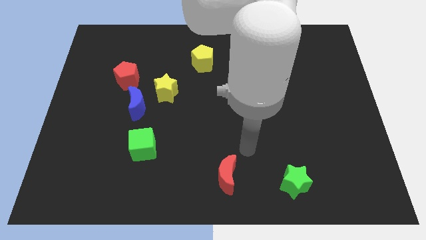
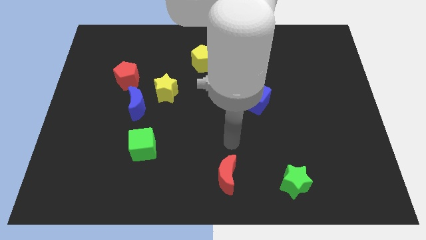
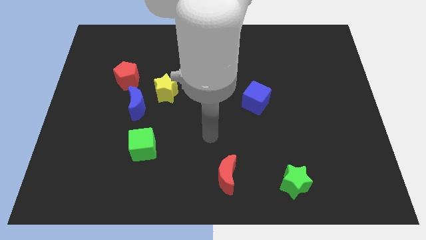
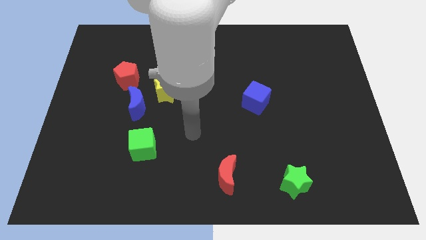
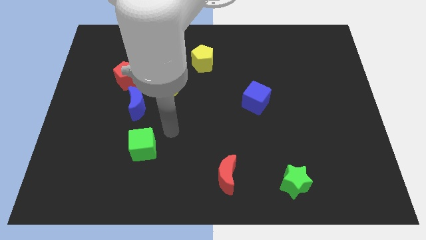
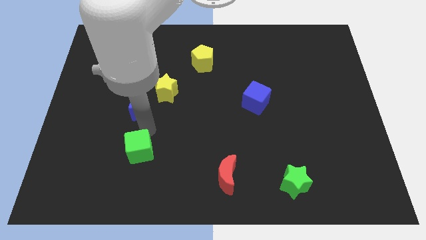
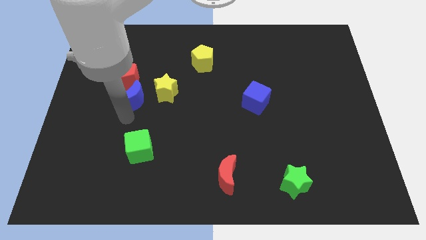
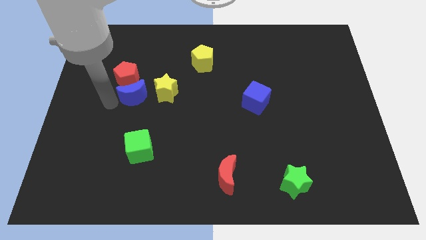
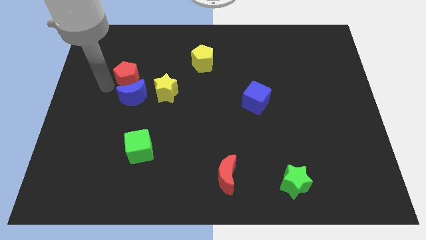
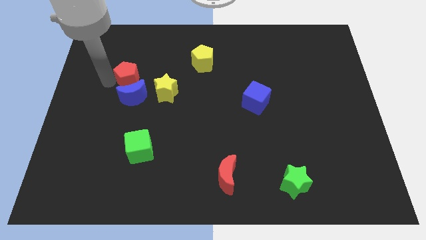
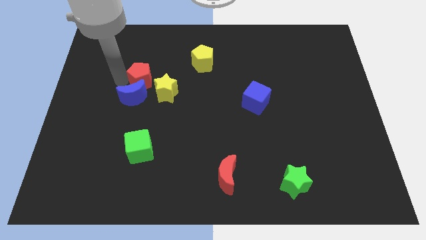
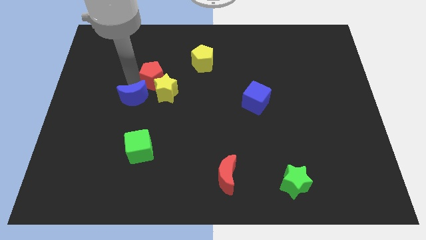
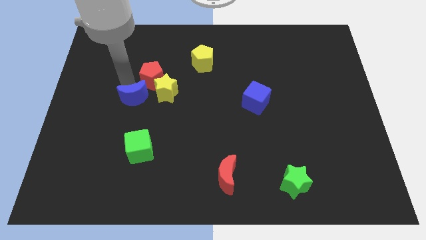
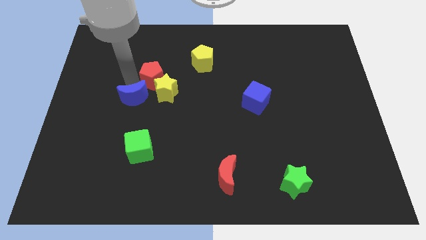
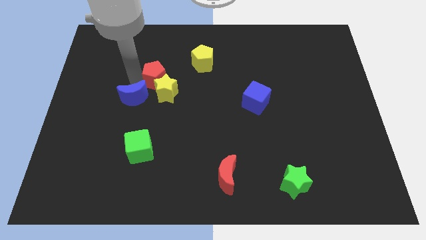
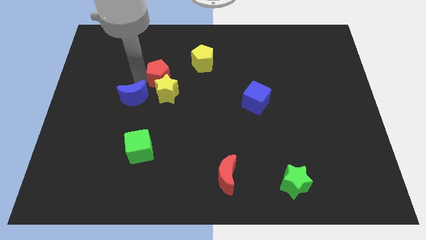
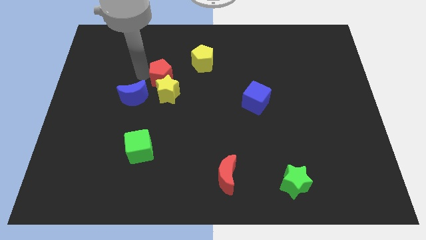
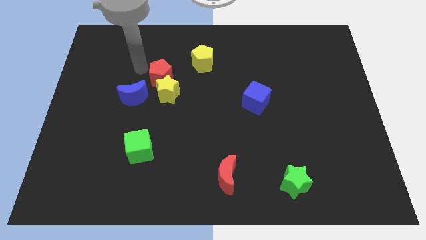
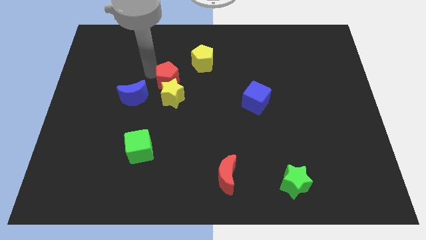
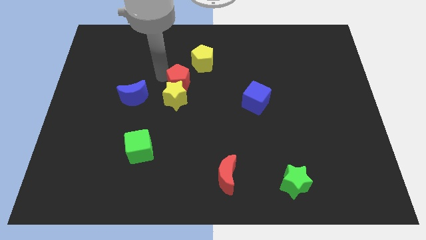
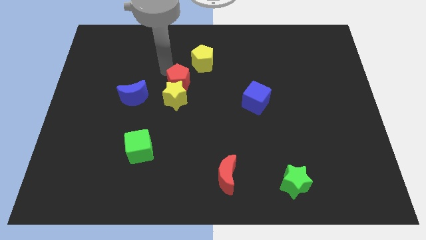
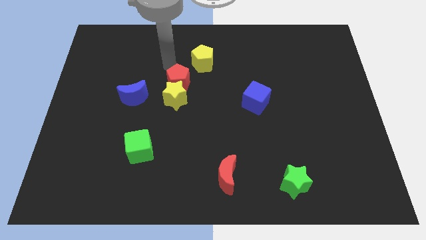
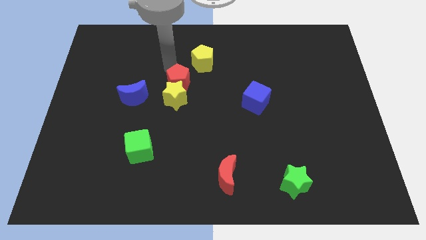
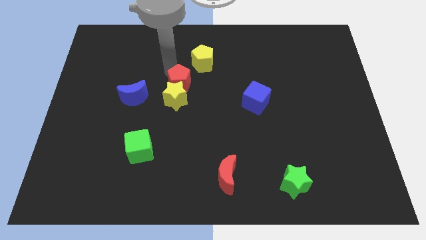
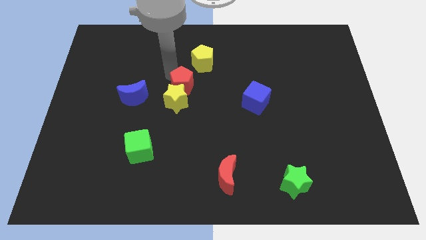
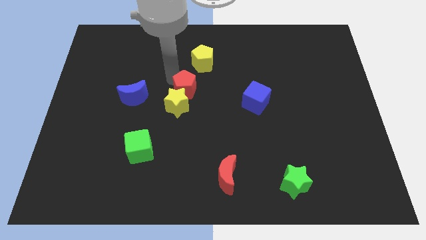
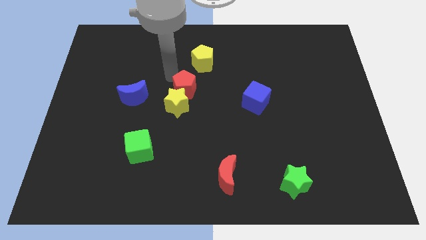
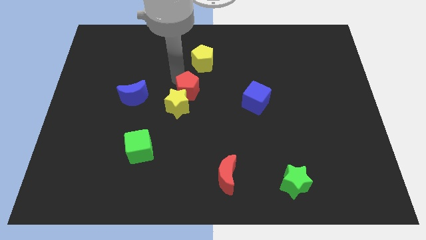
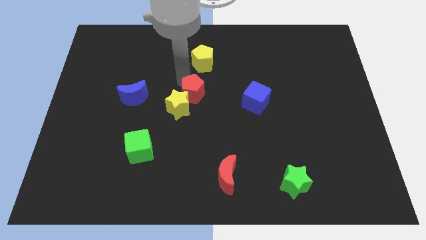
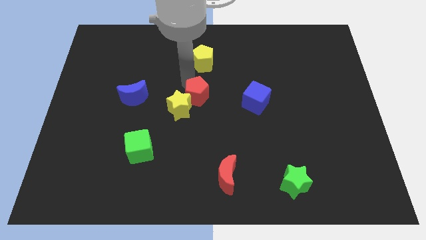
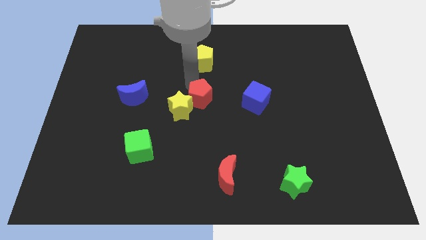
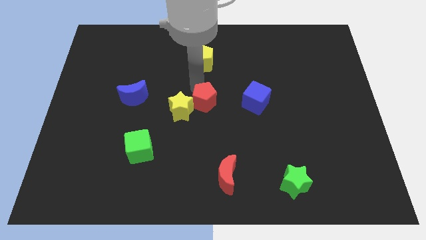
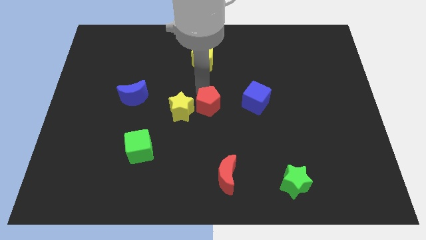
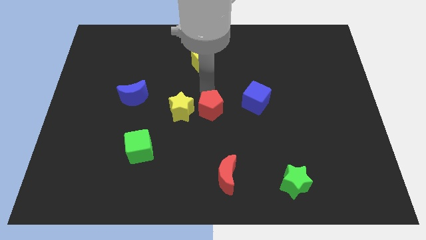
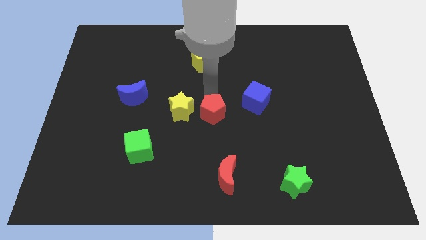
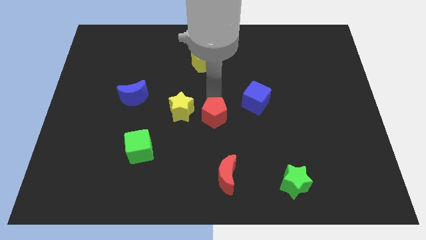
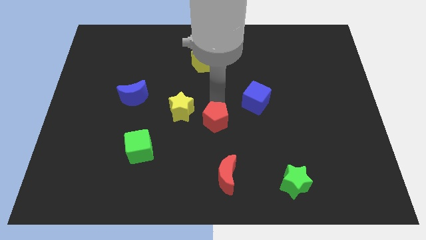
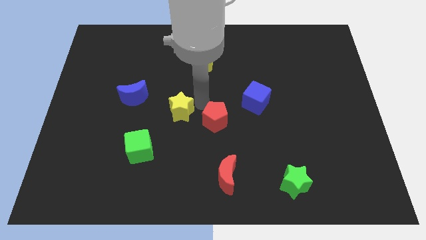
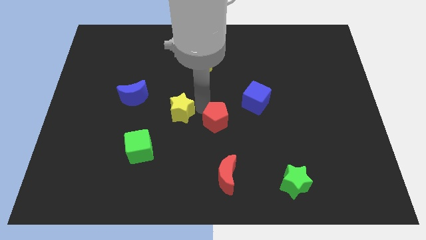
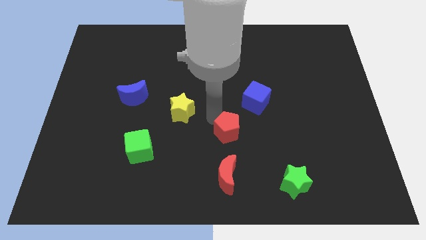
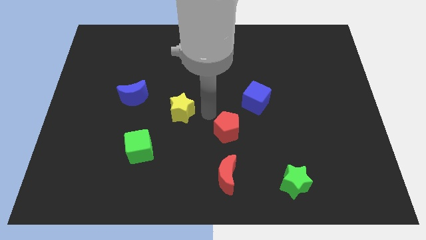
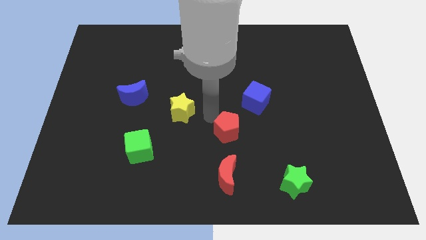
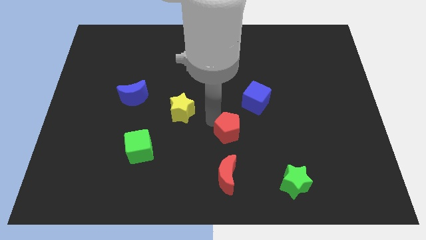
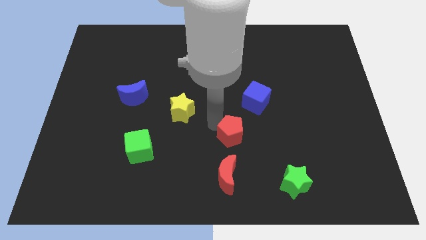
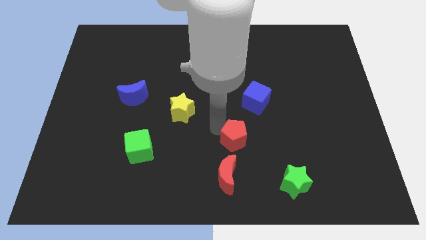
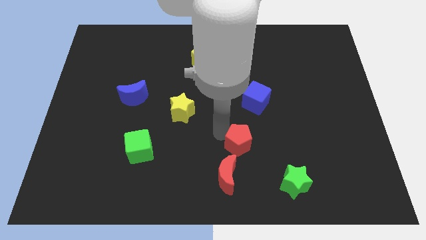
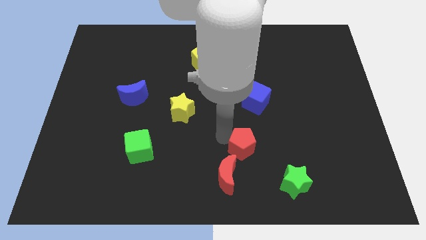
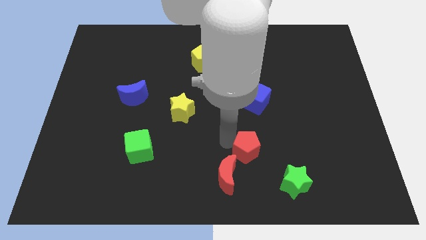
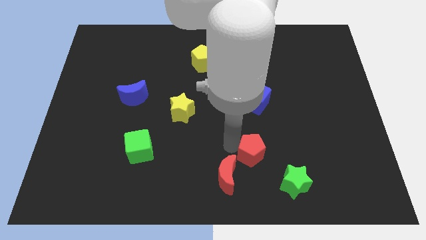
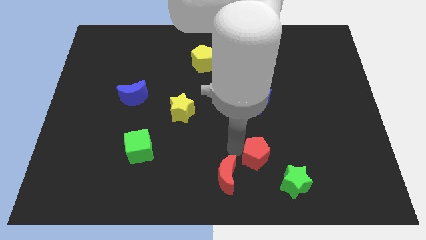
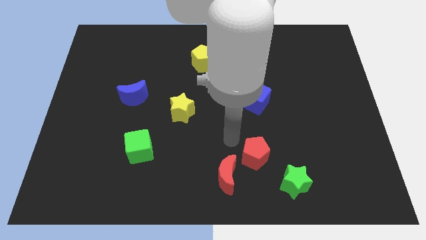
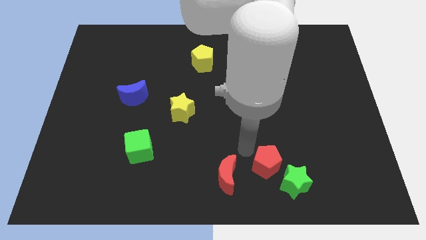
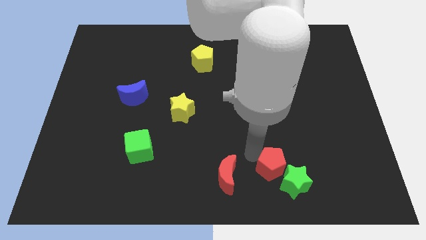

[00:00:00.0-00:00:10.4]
move the red pentagon close to the green star

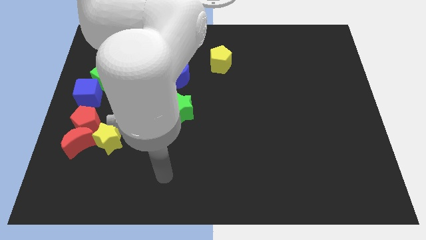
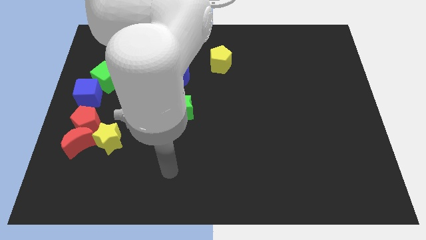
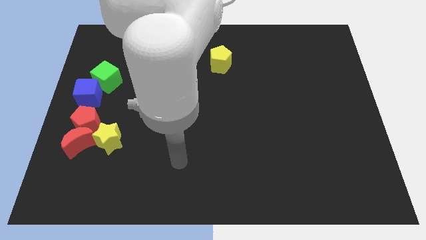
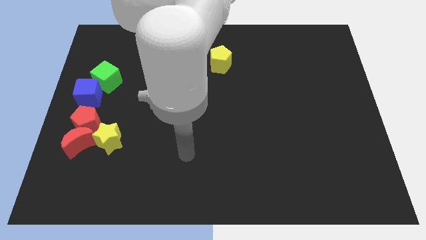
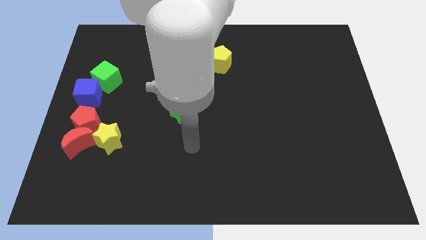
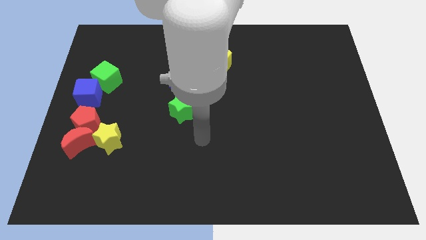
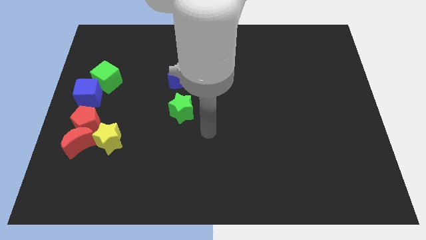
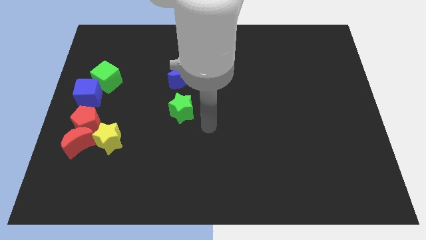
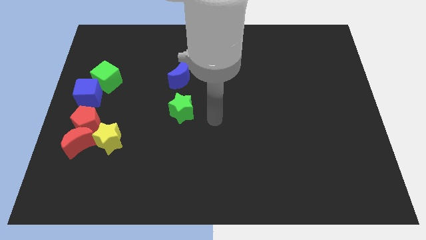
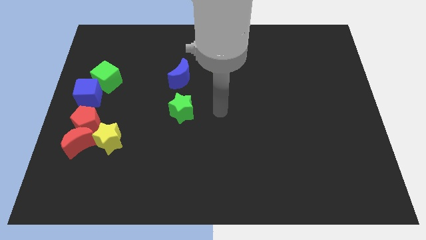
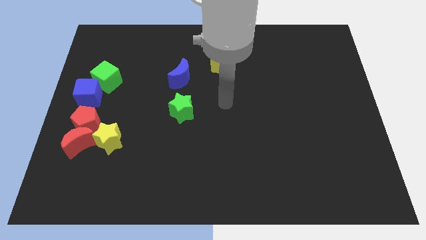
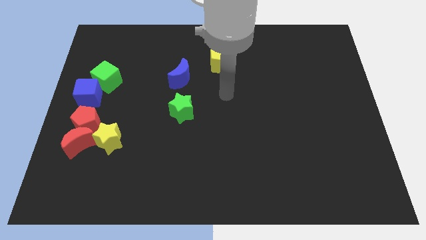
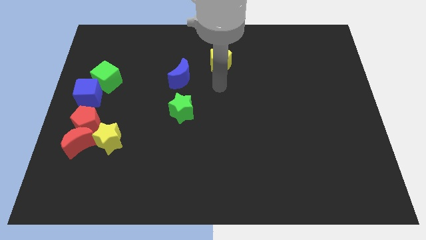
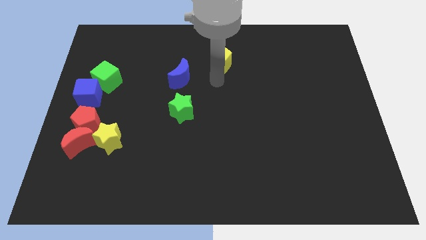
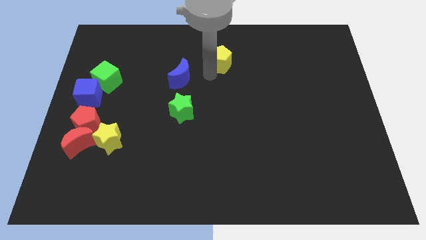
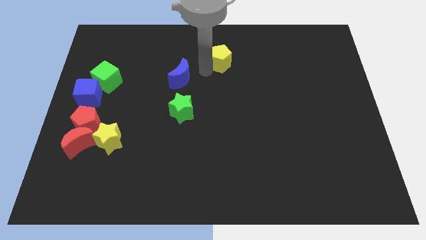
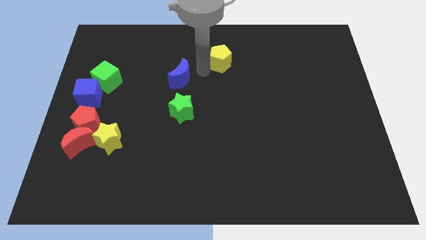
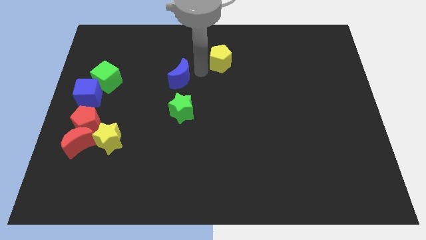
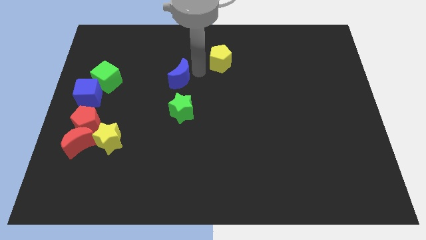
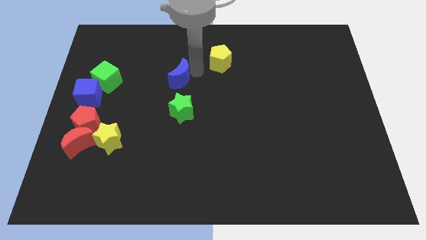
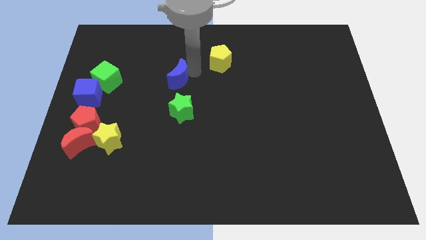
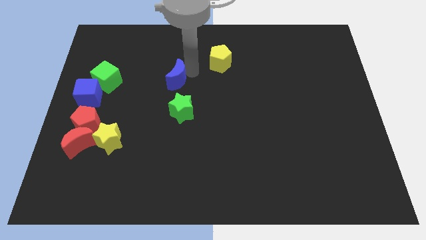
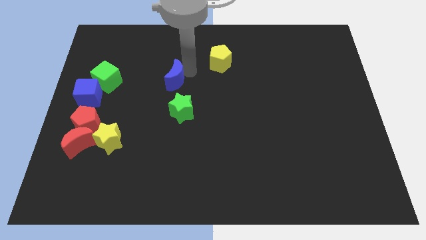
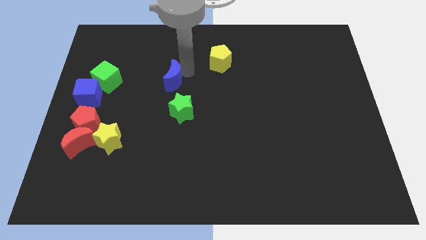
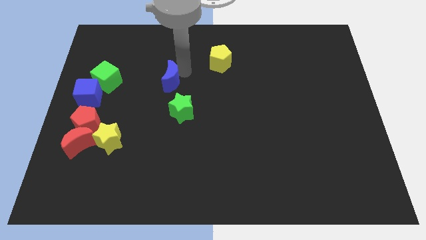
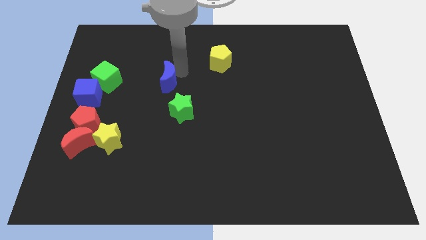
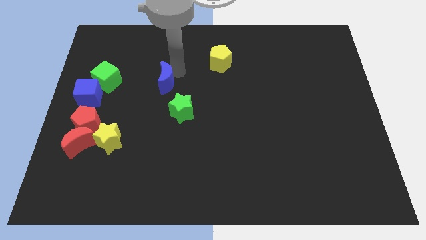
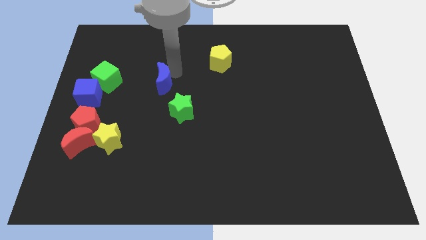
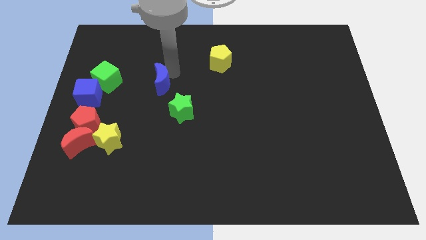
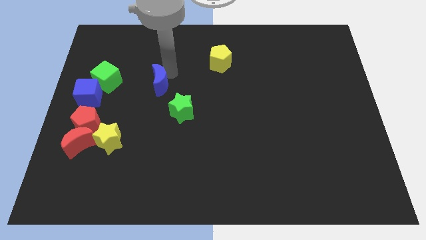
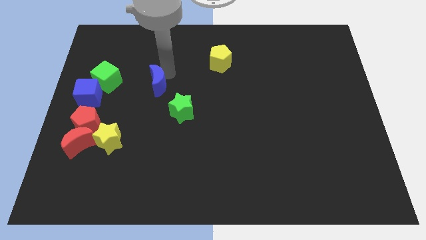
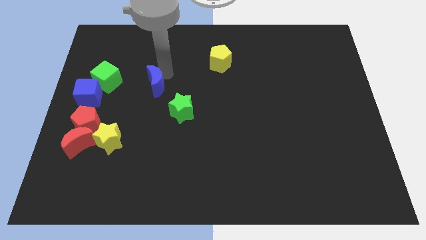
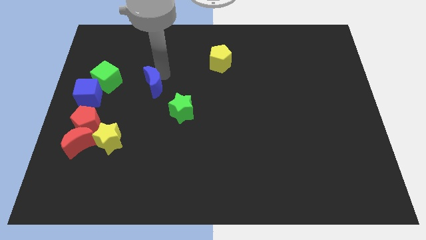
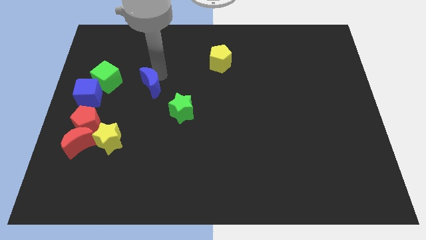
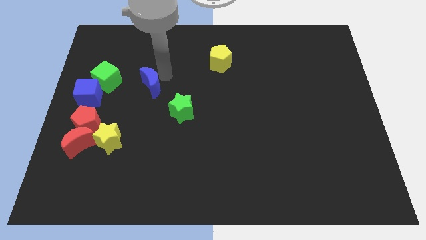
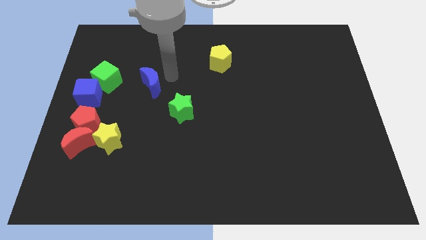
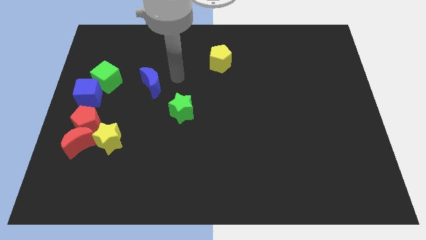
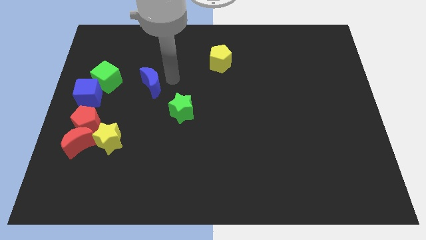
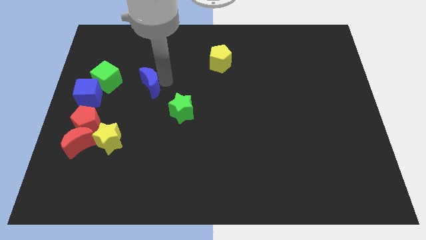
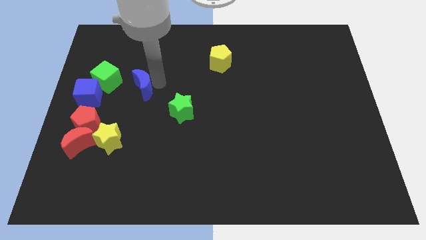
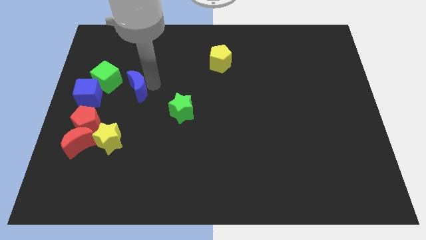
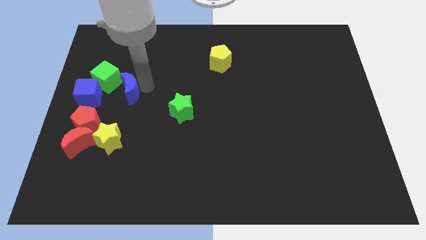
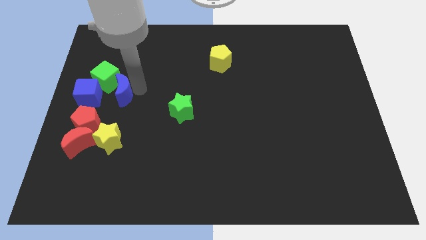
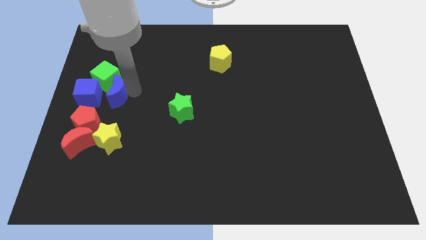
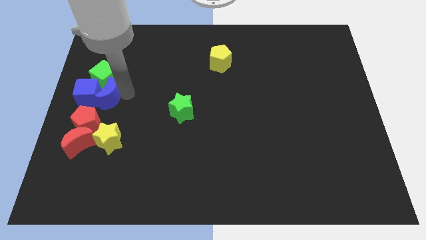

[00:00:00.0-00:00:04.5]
slide the blue moon towards the blue cube
